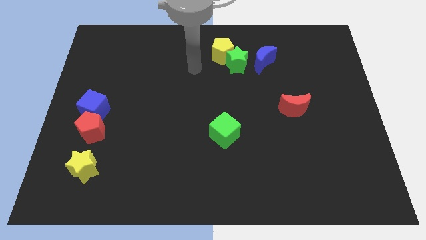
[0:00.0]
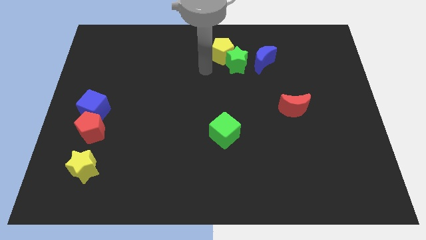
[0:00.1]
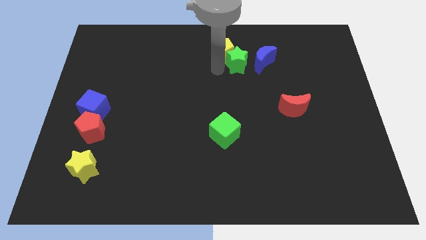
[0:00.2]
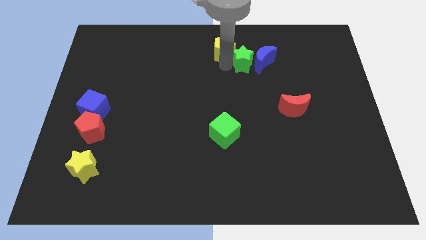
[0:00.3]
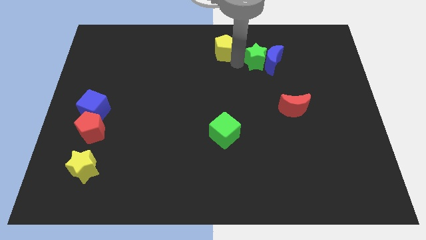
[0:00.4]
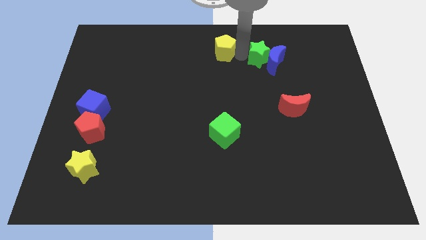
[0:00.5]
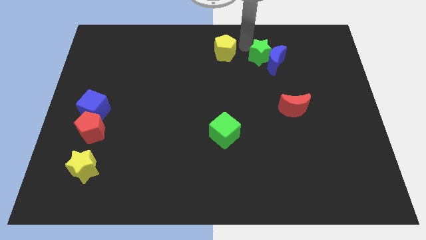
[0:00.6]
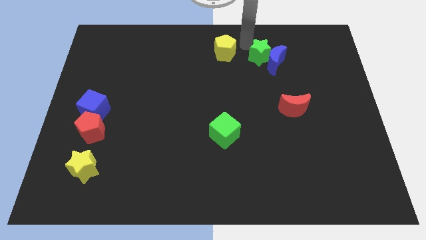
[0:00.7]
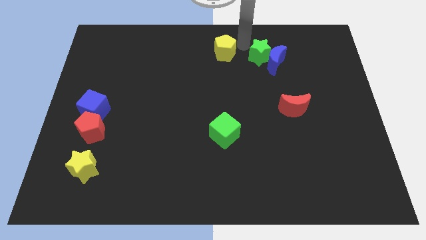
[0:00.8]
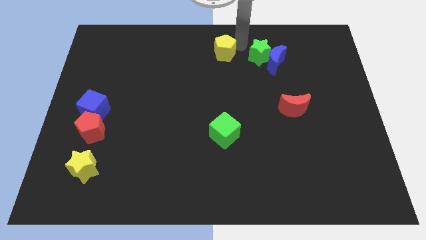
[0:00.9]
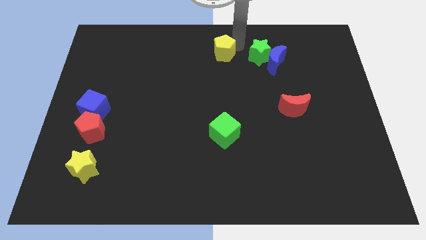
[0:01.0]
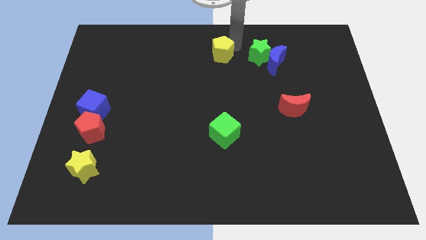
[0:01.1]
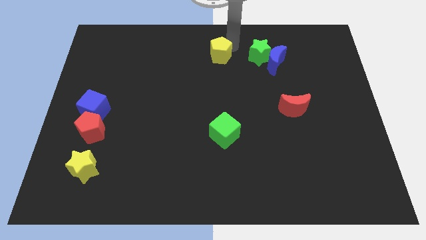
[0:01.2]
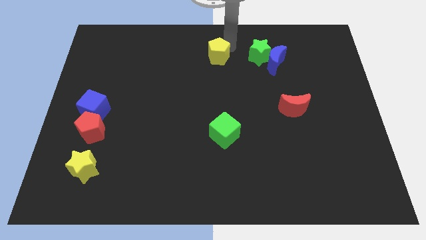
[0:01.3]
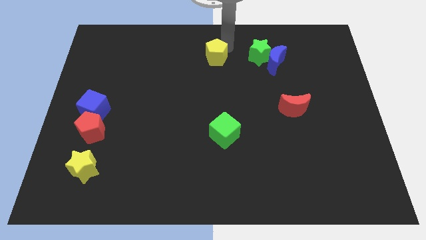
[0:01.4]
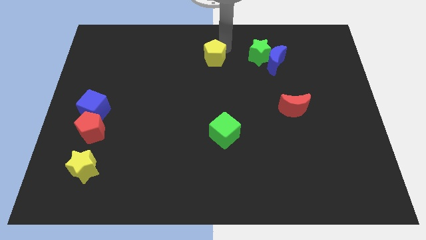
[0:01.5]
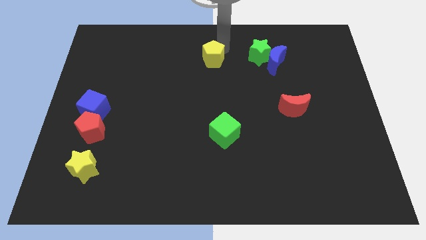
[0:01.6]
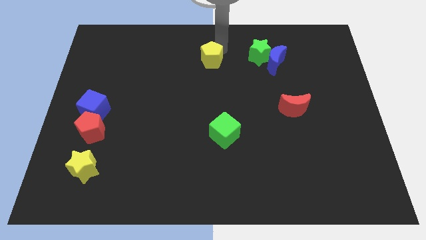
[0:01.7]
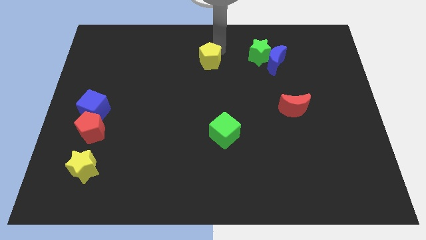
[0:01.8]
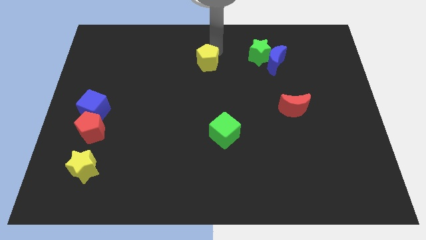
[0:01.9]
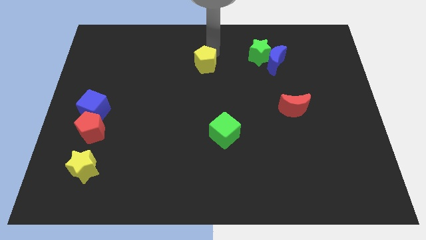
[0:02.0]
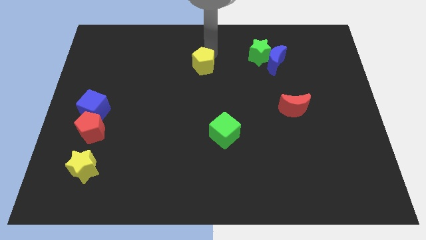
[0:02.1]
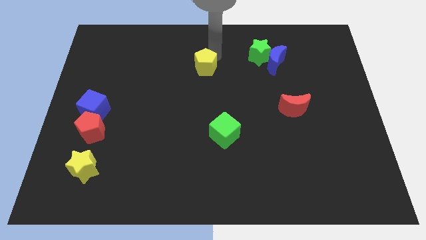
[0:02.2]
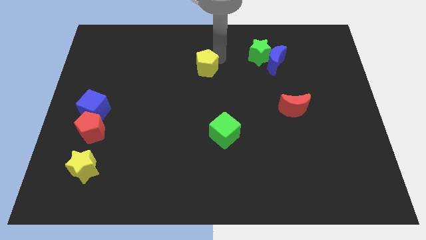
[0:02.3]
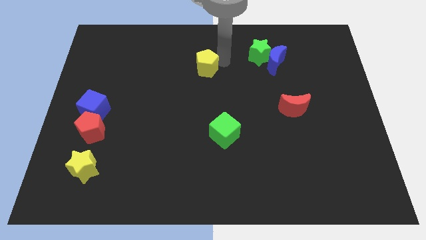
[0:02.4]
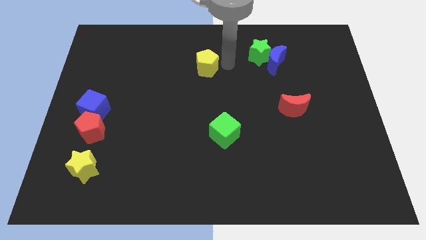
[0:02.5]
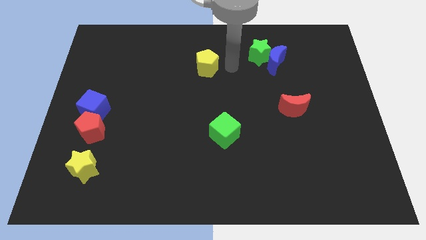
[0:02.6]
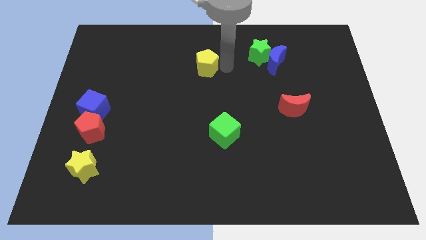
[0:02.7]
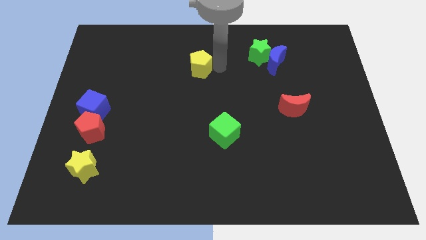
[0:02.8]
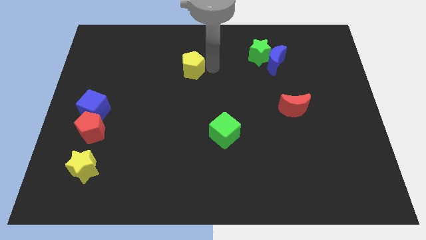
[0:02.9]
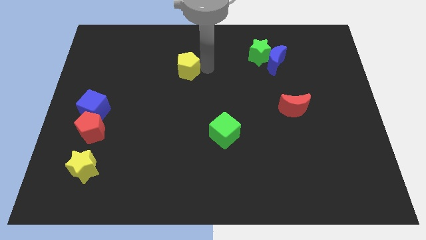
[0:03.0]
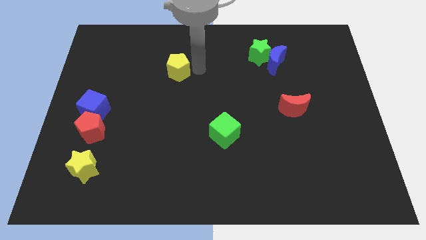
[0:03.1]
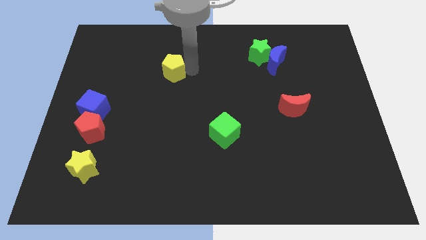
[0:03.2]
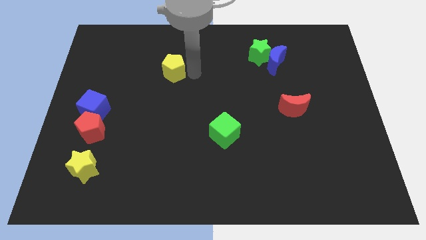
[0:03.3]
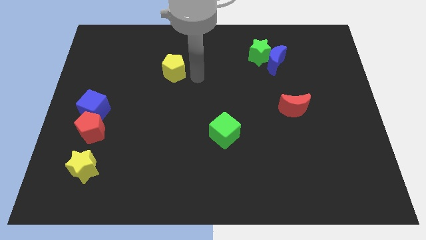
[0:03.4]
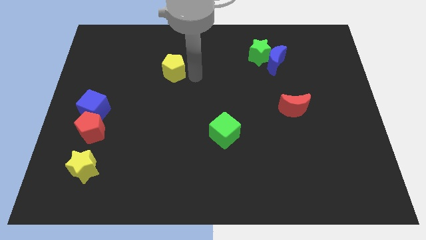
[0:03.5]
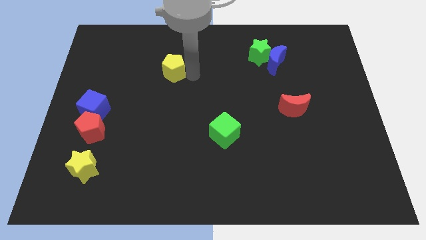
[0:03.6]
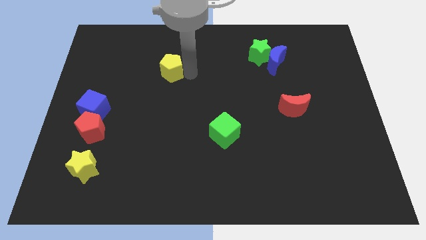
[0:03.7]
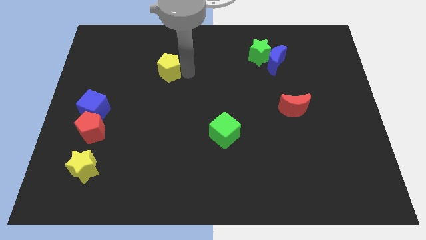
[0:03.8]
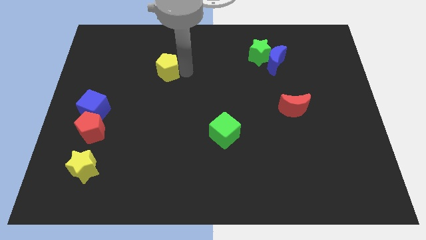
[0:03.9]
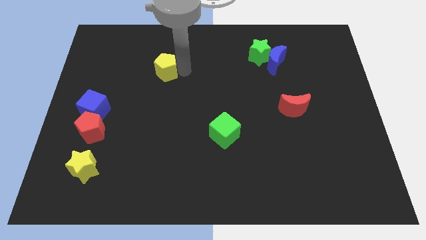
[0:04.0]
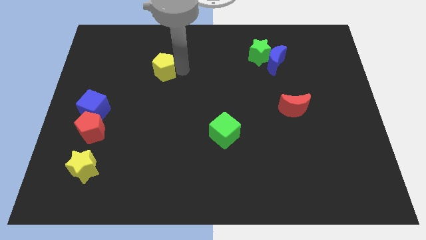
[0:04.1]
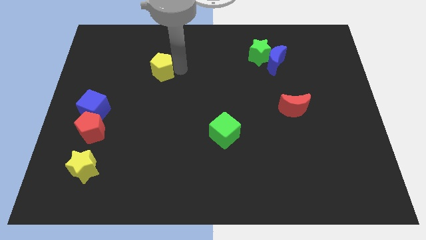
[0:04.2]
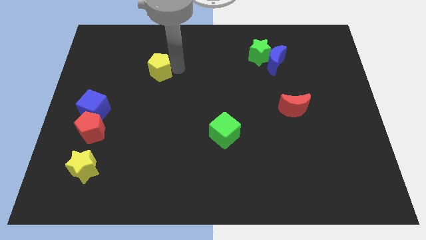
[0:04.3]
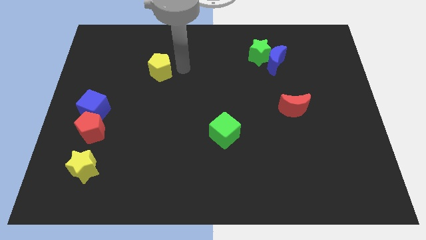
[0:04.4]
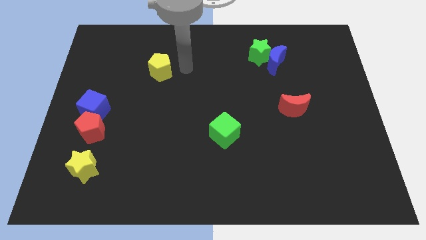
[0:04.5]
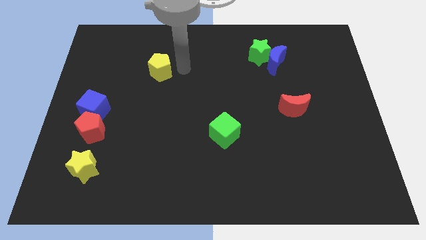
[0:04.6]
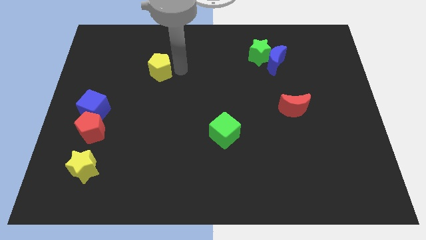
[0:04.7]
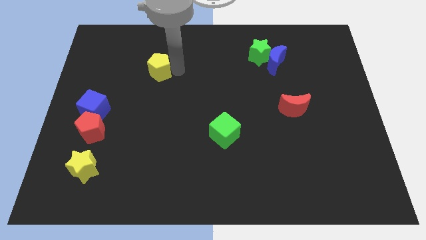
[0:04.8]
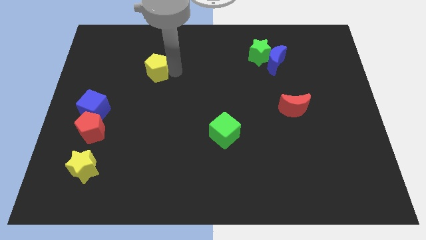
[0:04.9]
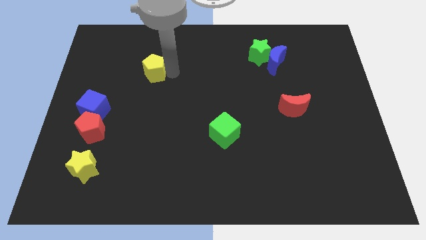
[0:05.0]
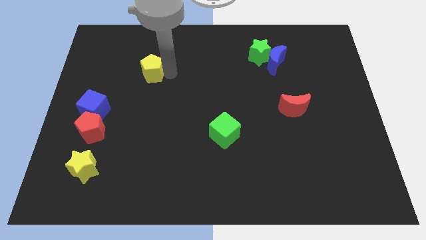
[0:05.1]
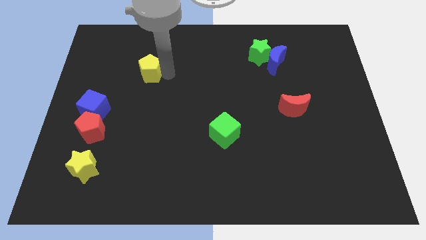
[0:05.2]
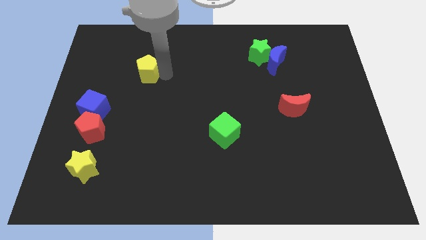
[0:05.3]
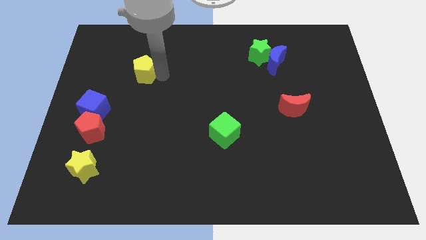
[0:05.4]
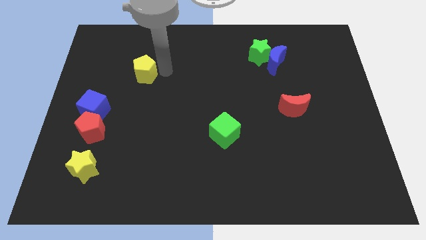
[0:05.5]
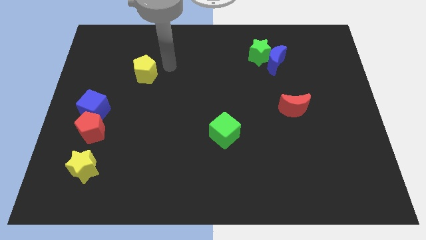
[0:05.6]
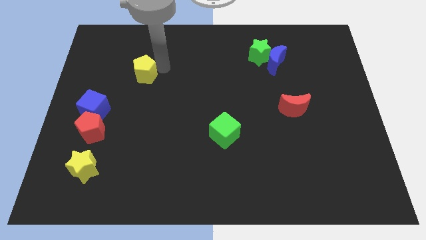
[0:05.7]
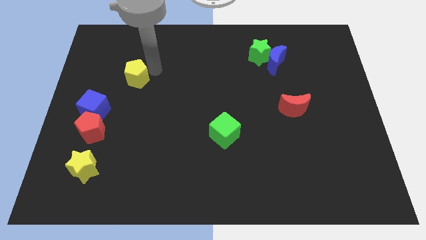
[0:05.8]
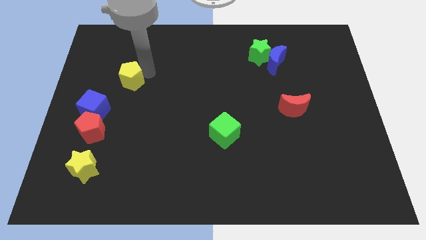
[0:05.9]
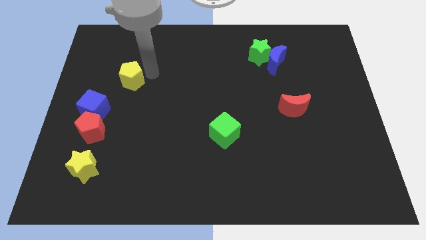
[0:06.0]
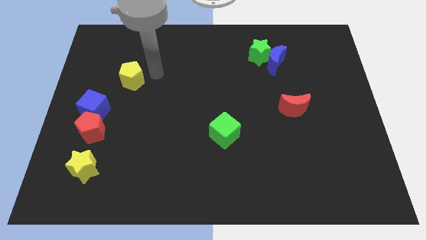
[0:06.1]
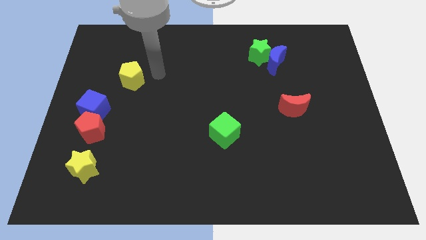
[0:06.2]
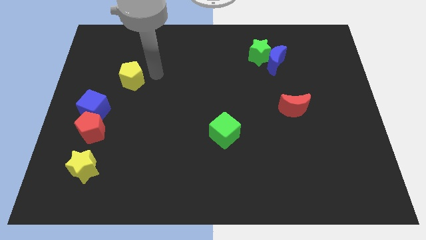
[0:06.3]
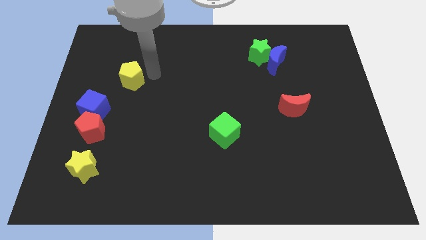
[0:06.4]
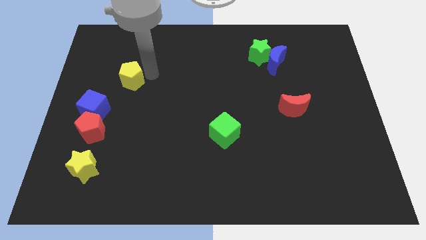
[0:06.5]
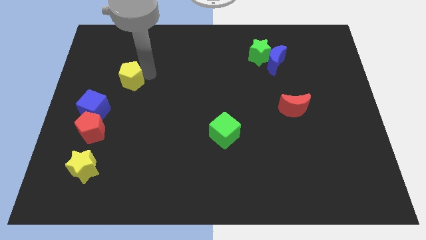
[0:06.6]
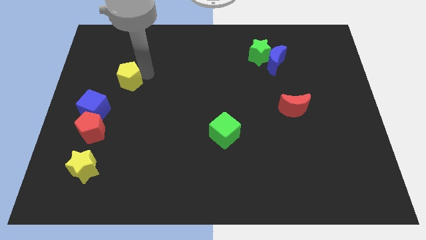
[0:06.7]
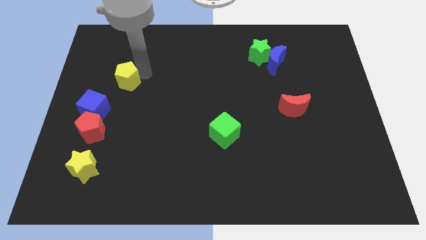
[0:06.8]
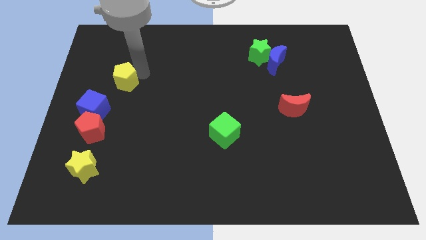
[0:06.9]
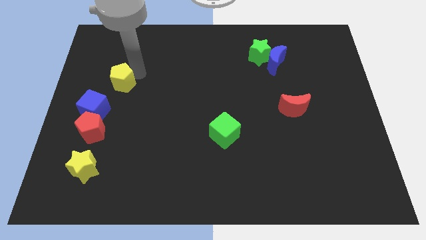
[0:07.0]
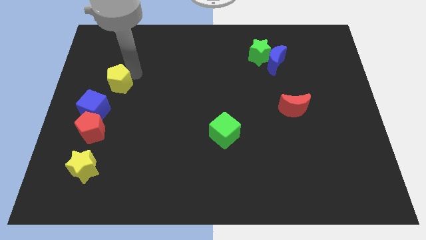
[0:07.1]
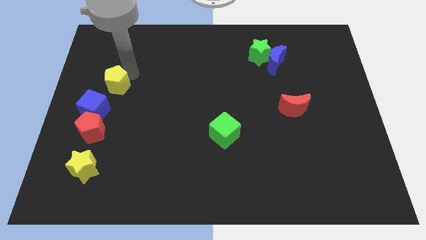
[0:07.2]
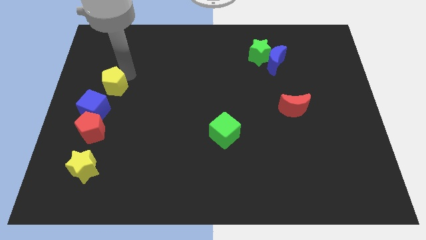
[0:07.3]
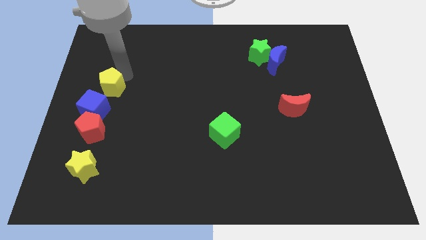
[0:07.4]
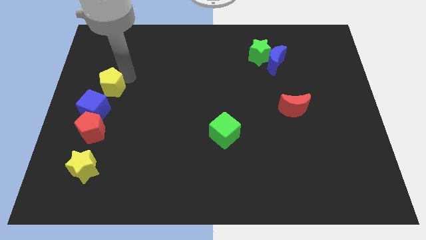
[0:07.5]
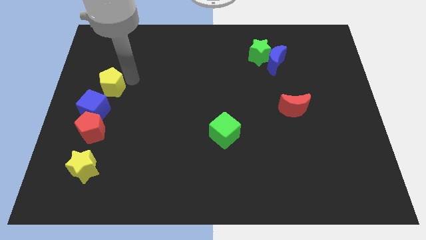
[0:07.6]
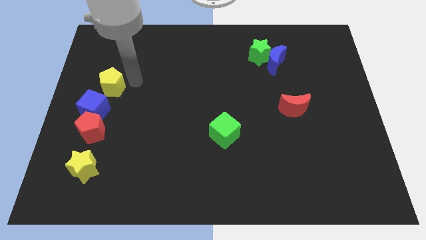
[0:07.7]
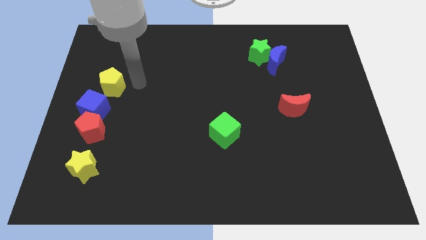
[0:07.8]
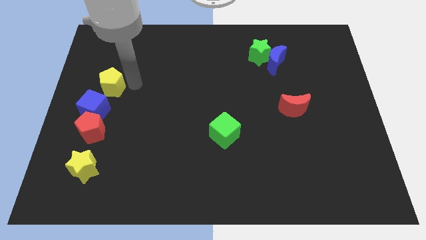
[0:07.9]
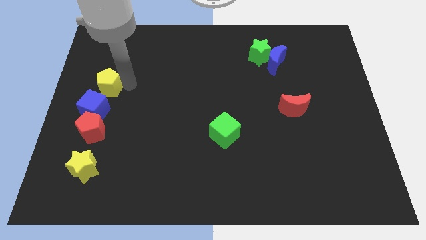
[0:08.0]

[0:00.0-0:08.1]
push the yellow pentagon to the center left
